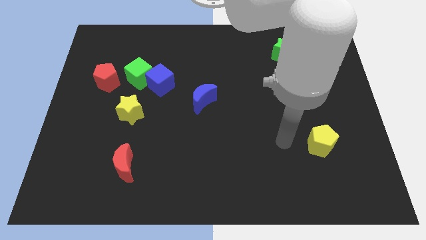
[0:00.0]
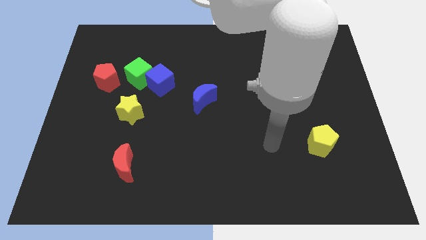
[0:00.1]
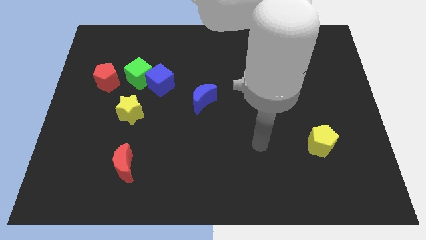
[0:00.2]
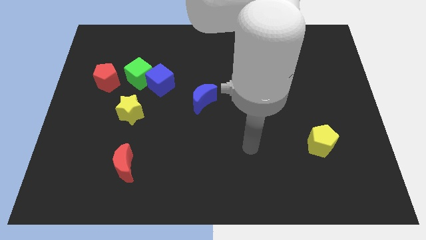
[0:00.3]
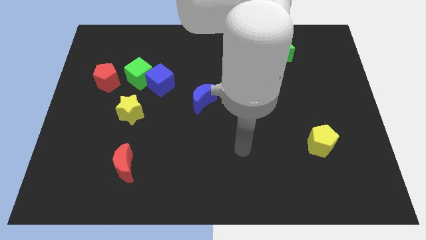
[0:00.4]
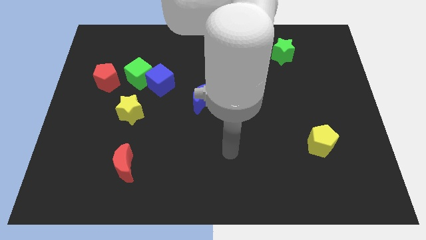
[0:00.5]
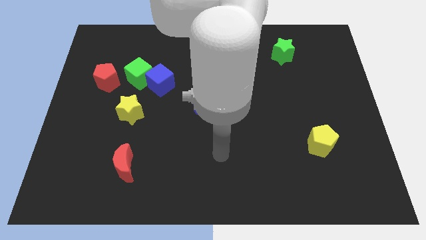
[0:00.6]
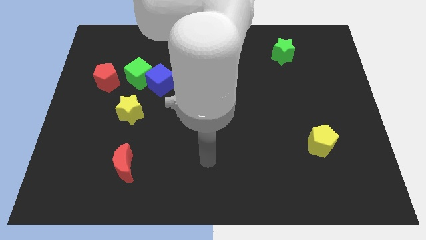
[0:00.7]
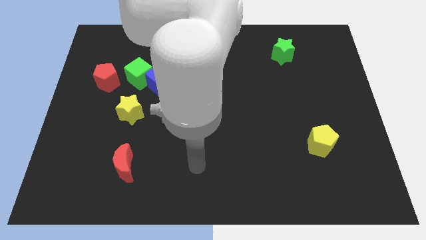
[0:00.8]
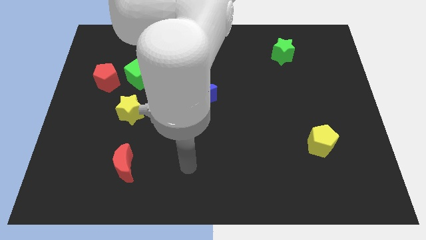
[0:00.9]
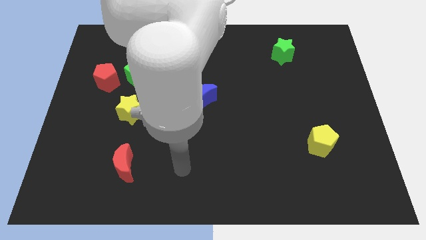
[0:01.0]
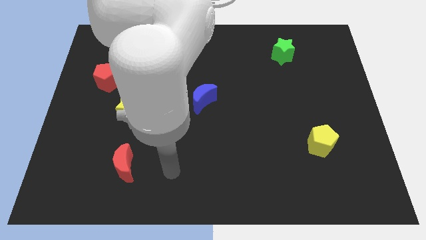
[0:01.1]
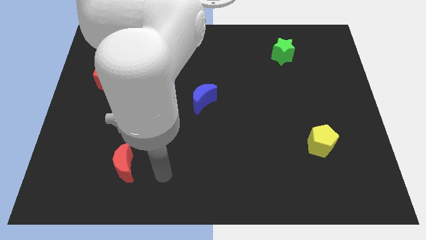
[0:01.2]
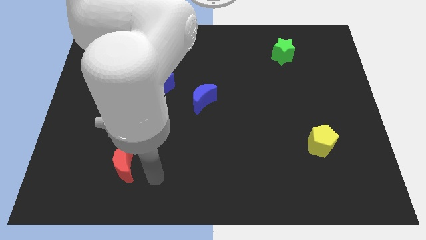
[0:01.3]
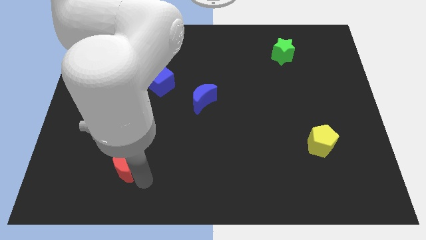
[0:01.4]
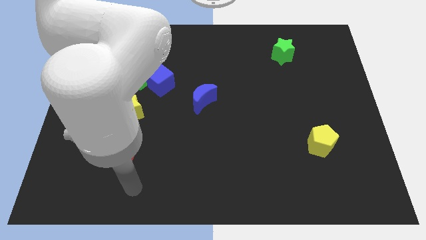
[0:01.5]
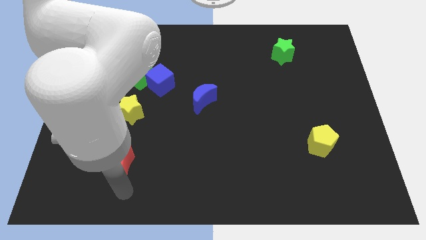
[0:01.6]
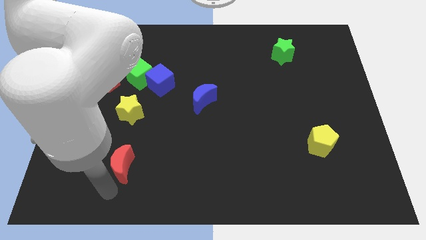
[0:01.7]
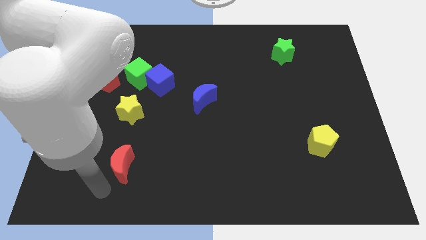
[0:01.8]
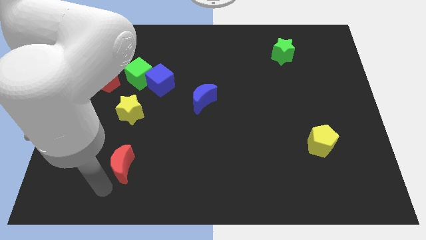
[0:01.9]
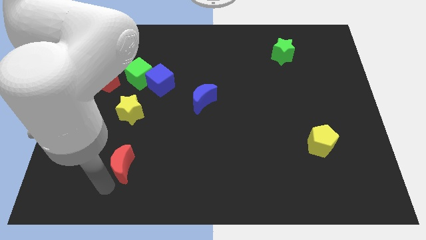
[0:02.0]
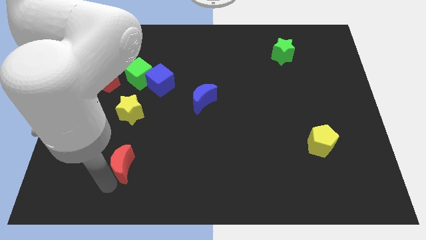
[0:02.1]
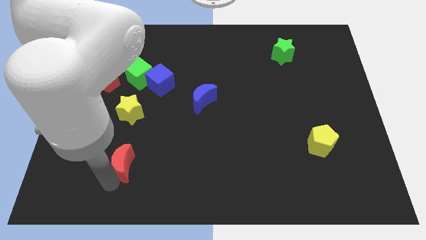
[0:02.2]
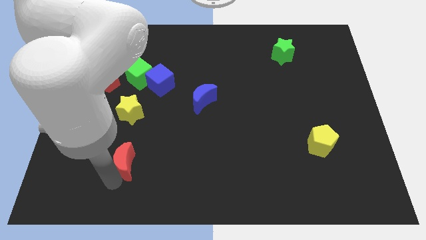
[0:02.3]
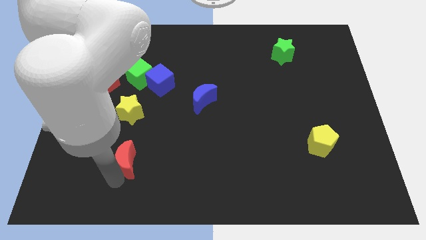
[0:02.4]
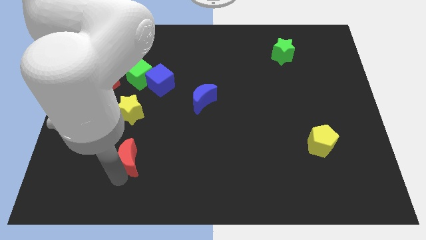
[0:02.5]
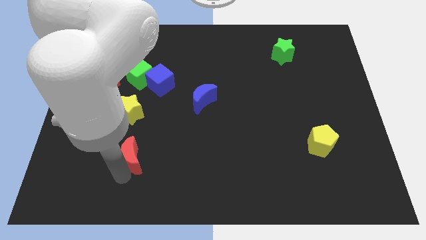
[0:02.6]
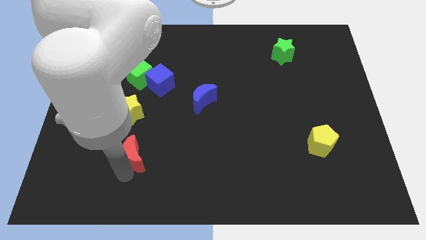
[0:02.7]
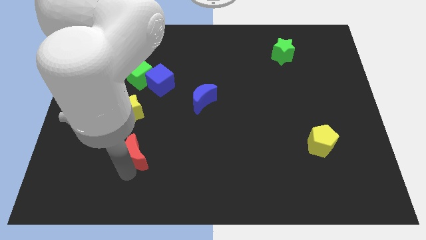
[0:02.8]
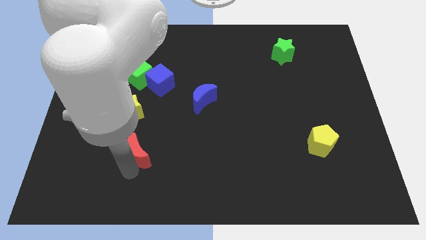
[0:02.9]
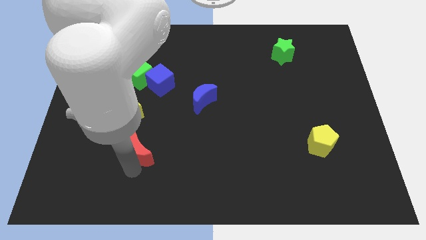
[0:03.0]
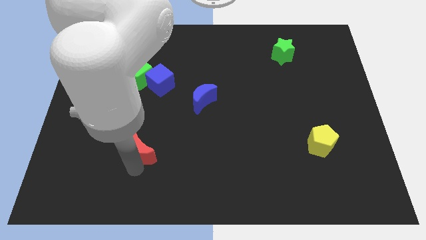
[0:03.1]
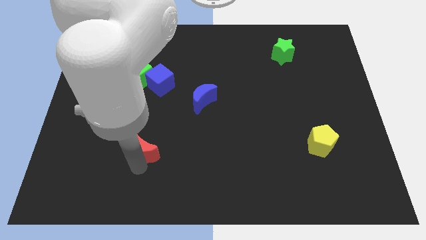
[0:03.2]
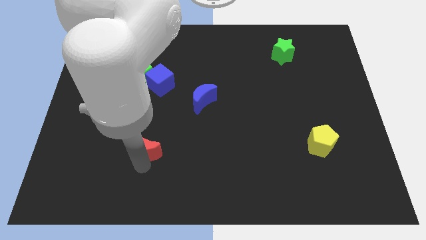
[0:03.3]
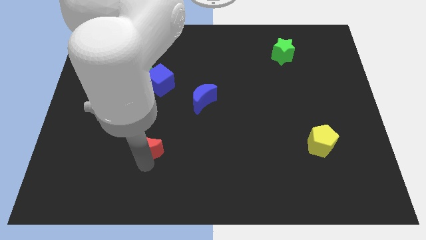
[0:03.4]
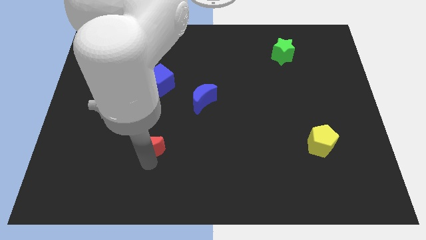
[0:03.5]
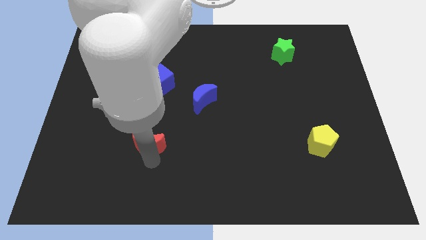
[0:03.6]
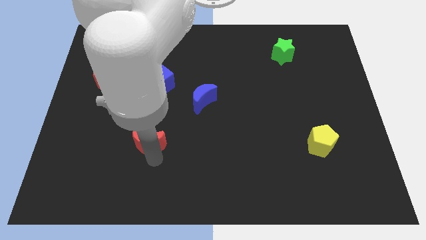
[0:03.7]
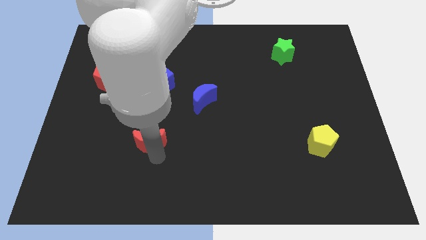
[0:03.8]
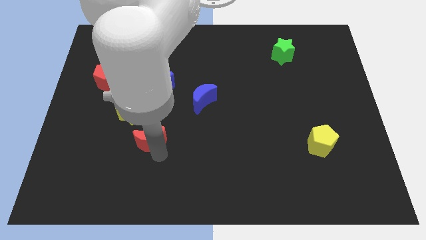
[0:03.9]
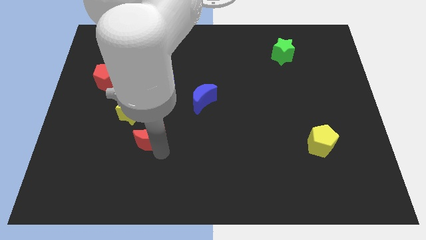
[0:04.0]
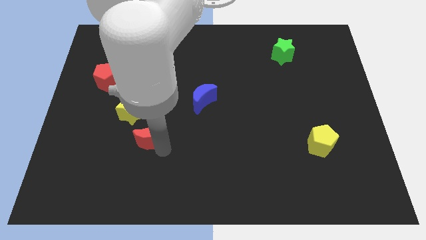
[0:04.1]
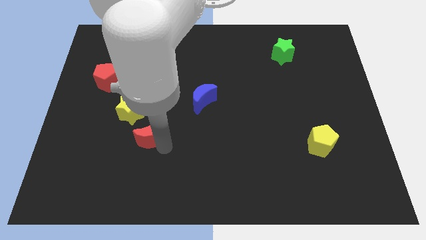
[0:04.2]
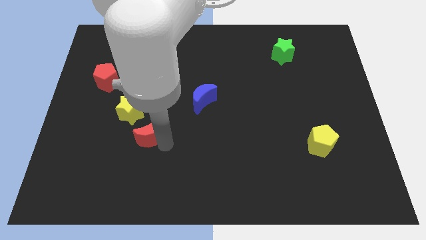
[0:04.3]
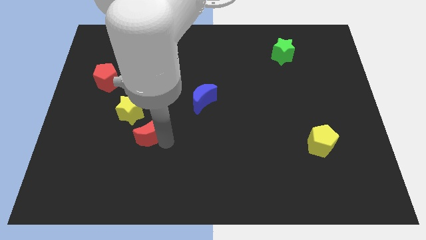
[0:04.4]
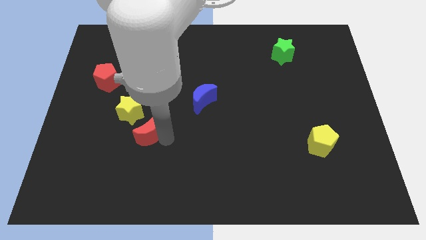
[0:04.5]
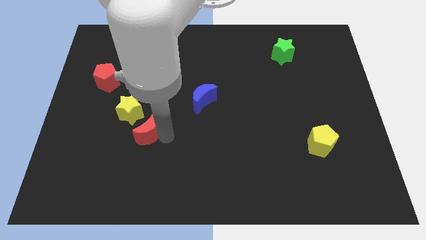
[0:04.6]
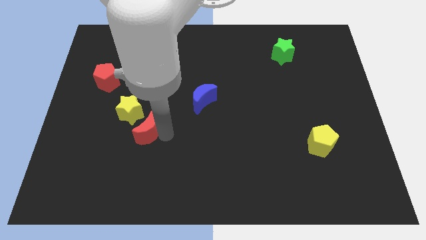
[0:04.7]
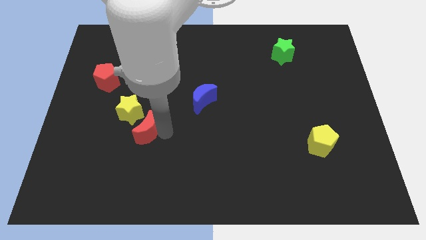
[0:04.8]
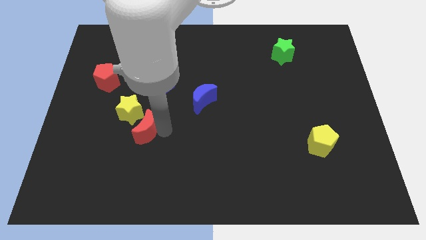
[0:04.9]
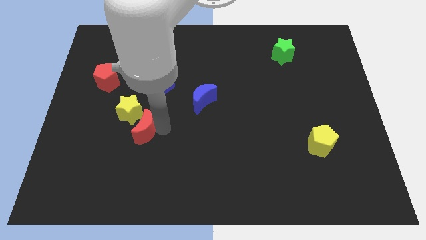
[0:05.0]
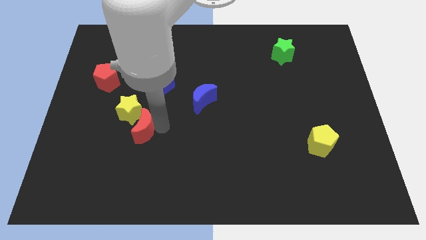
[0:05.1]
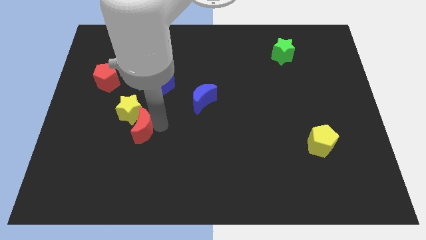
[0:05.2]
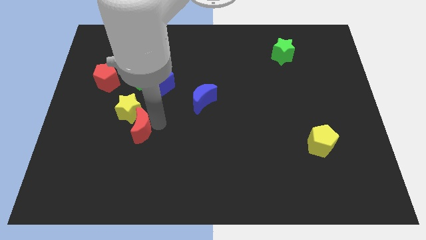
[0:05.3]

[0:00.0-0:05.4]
slide the red moon to the bottom side of the green cube

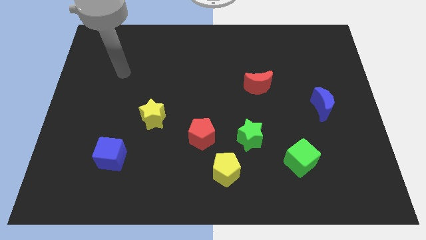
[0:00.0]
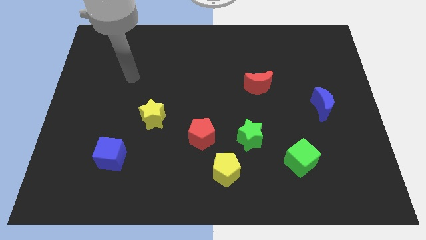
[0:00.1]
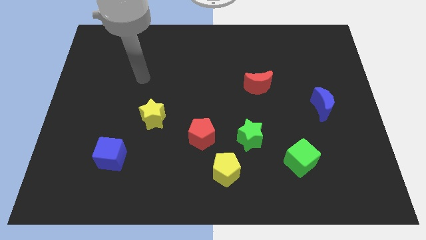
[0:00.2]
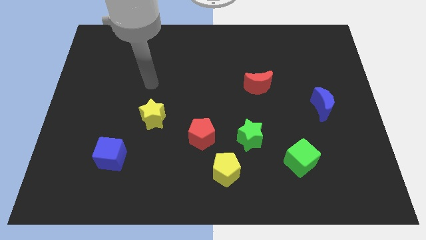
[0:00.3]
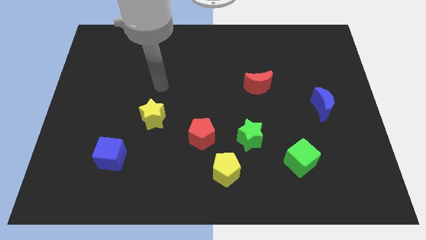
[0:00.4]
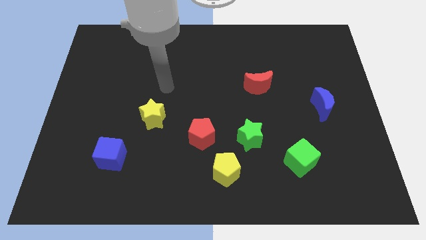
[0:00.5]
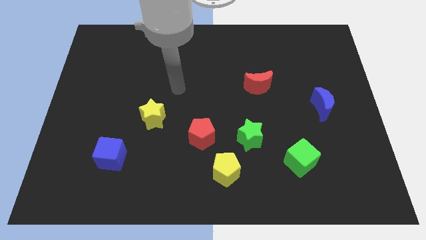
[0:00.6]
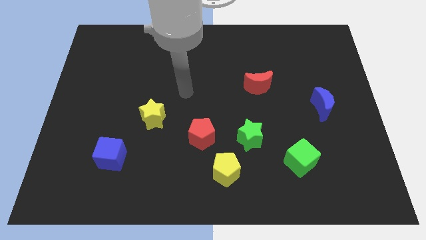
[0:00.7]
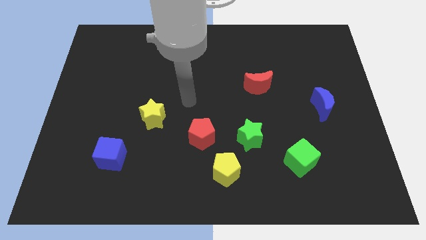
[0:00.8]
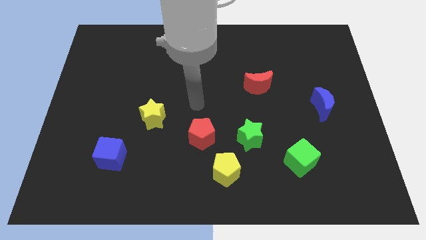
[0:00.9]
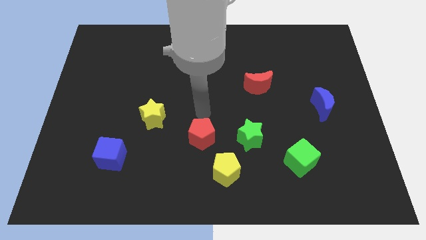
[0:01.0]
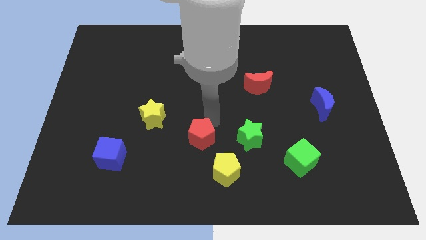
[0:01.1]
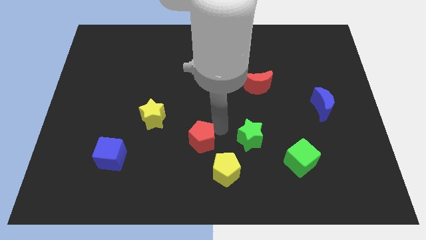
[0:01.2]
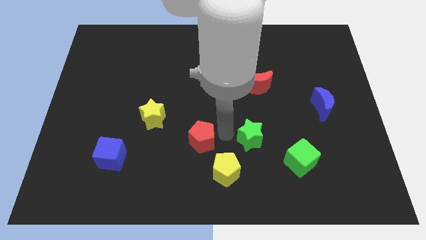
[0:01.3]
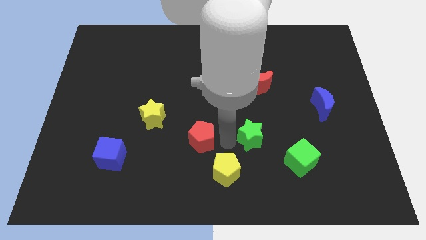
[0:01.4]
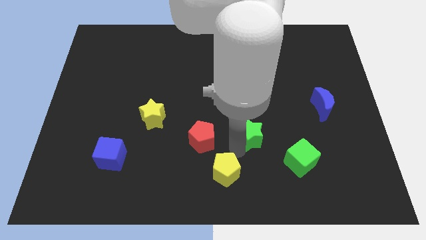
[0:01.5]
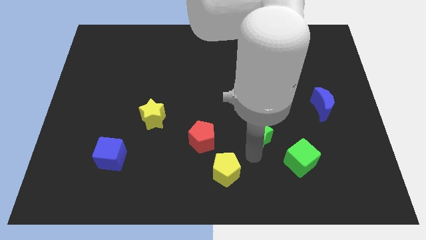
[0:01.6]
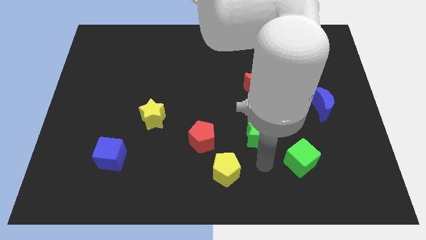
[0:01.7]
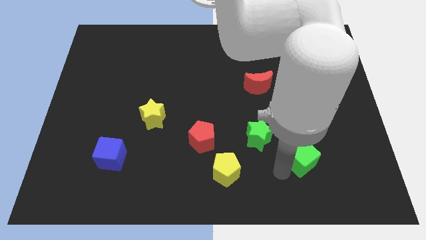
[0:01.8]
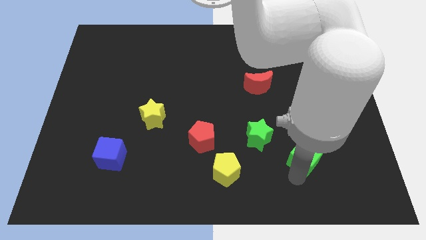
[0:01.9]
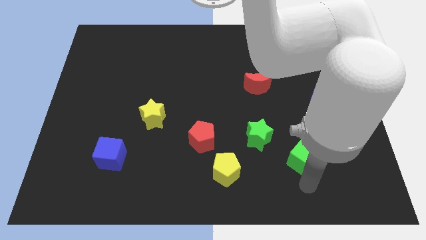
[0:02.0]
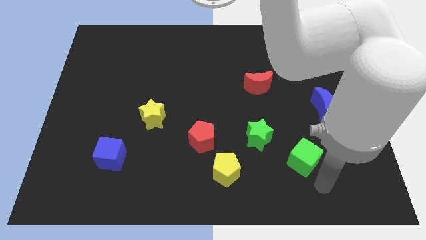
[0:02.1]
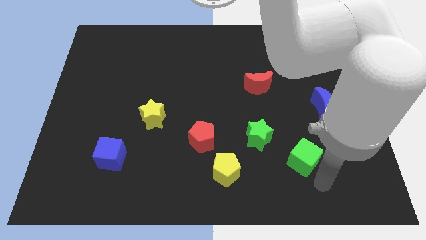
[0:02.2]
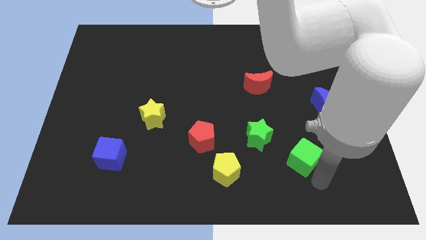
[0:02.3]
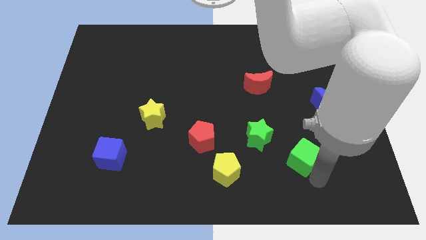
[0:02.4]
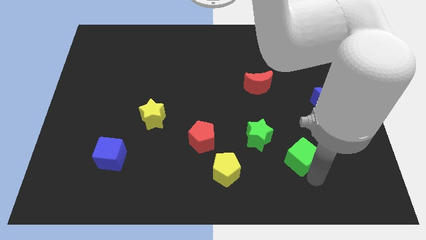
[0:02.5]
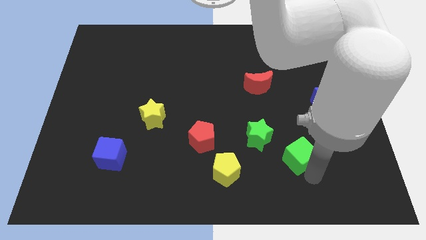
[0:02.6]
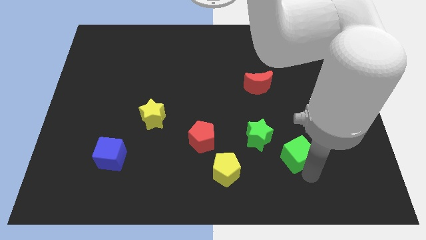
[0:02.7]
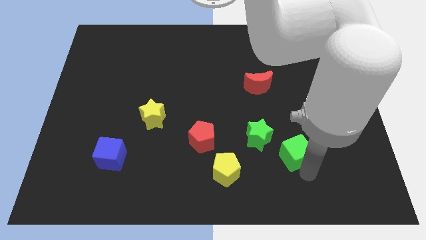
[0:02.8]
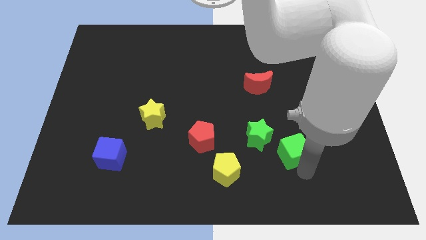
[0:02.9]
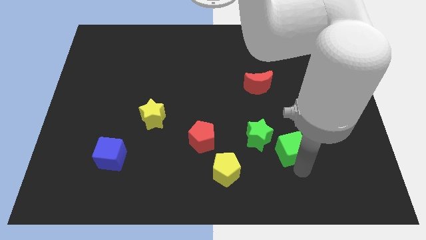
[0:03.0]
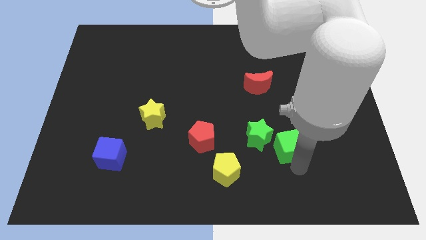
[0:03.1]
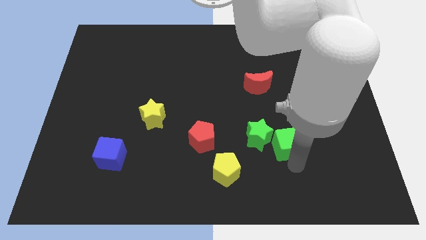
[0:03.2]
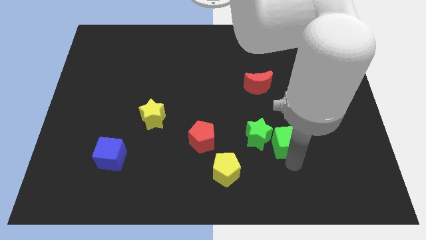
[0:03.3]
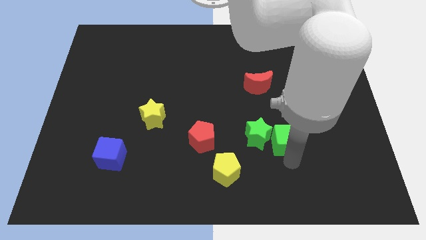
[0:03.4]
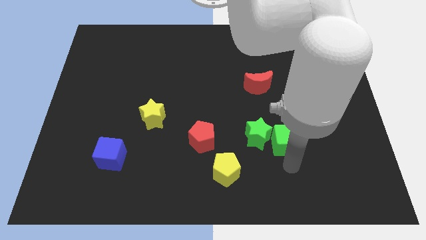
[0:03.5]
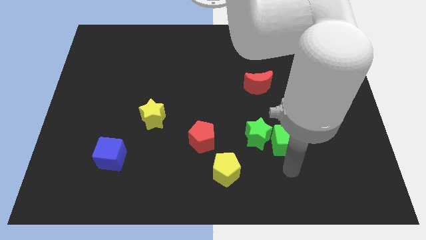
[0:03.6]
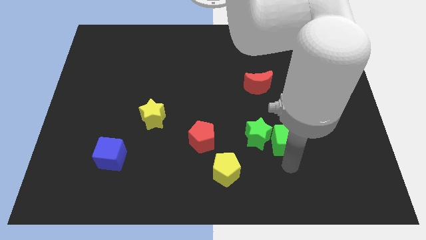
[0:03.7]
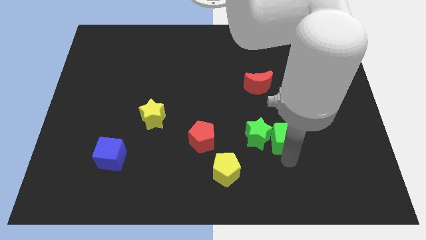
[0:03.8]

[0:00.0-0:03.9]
push the green cube diagonally up and to the right of the green star
